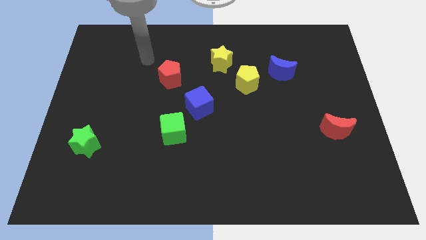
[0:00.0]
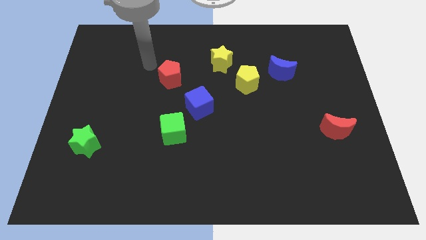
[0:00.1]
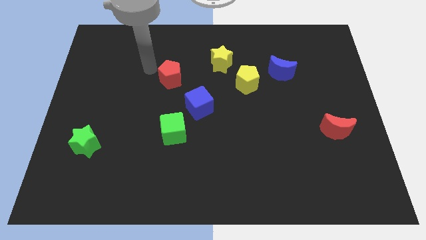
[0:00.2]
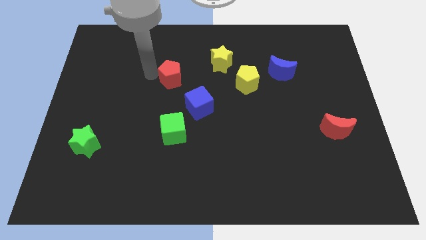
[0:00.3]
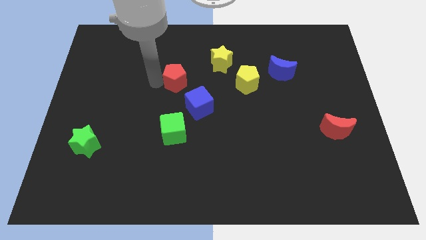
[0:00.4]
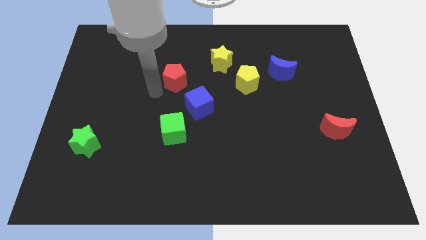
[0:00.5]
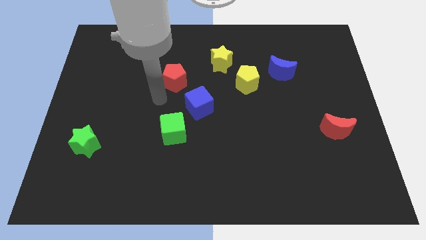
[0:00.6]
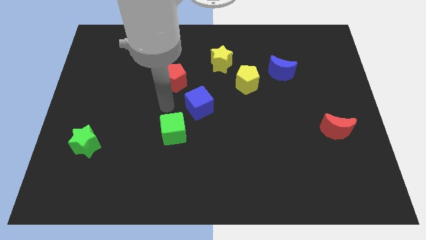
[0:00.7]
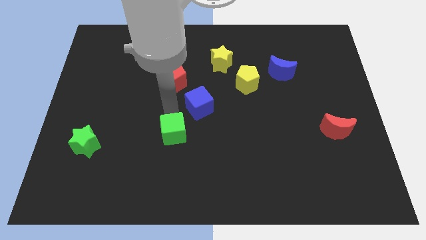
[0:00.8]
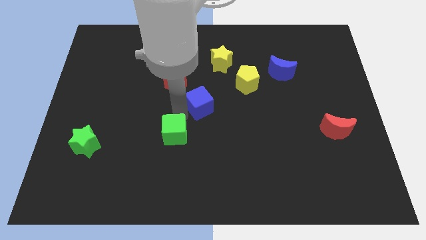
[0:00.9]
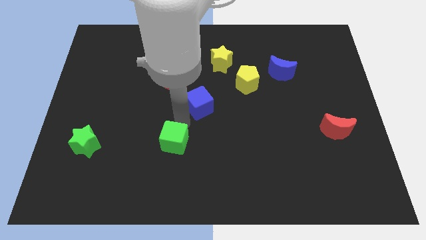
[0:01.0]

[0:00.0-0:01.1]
pull the blue cube apart from the green cube

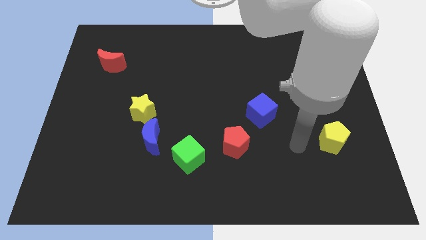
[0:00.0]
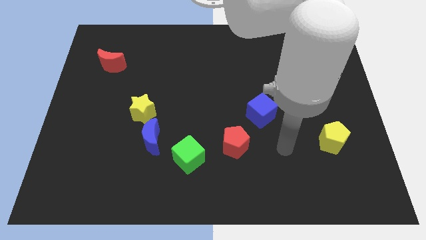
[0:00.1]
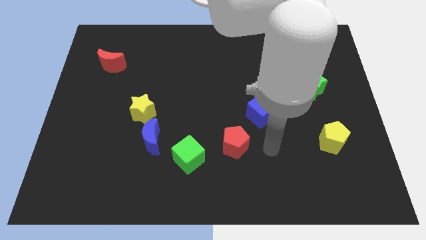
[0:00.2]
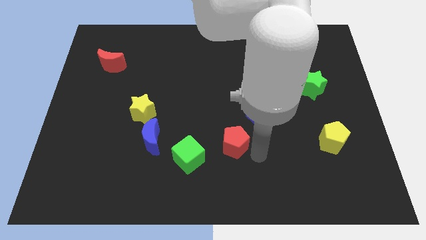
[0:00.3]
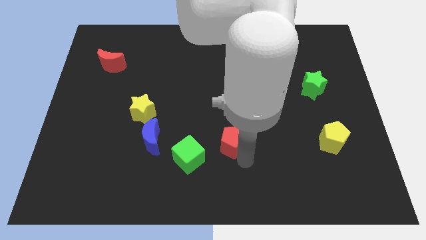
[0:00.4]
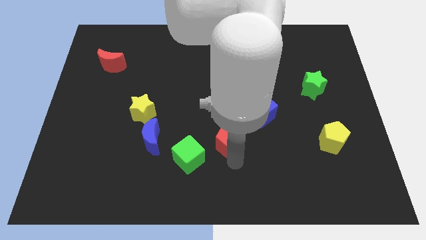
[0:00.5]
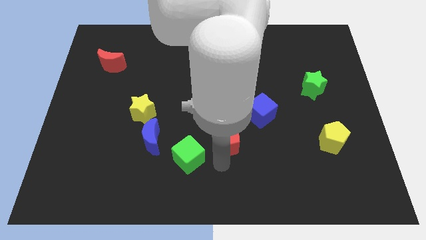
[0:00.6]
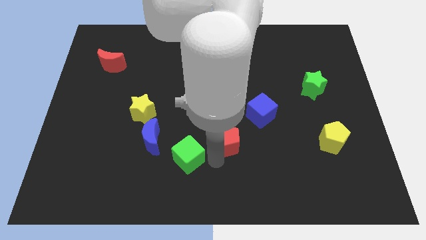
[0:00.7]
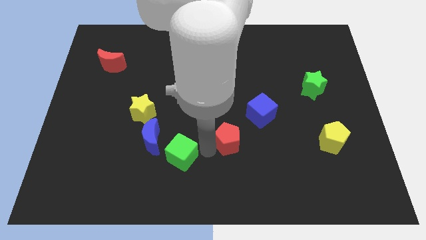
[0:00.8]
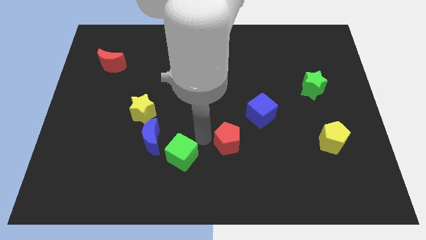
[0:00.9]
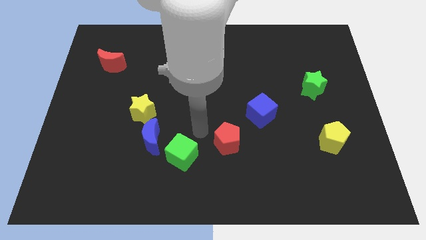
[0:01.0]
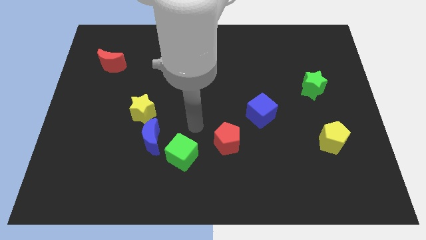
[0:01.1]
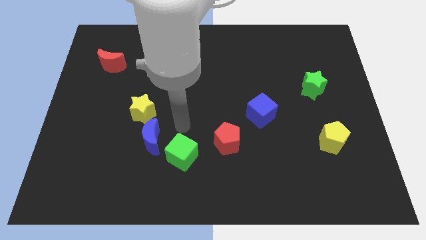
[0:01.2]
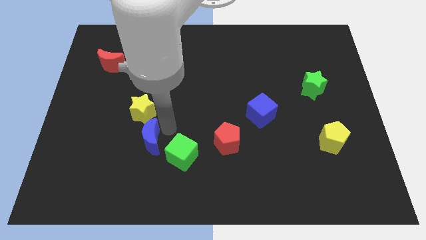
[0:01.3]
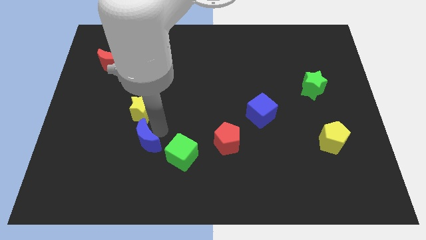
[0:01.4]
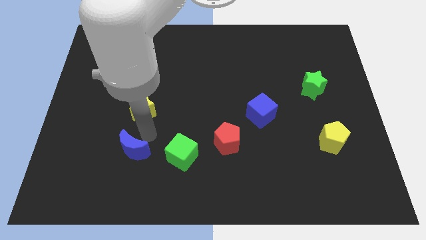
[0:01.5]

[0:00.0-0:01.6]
move the yellow star away from the blue moon

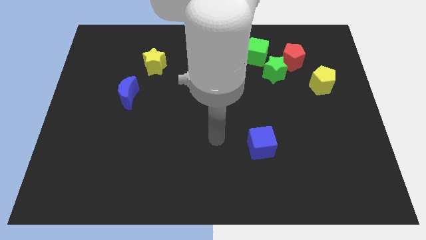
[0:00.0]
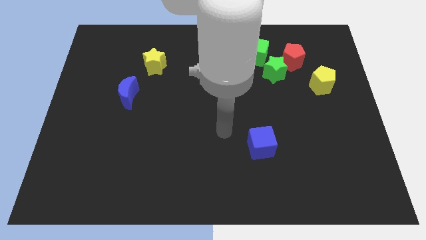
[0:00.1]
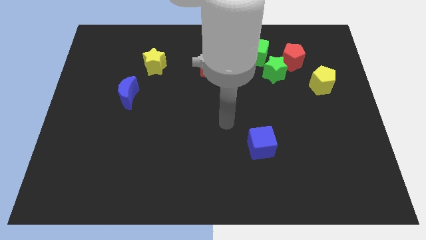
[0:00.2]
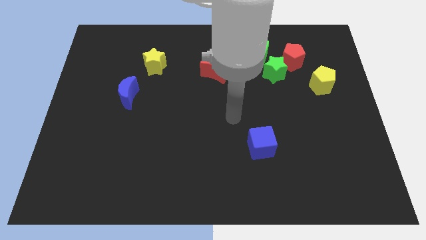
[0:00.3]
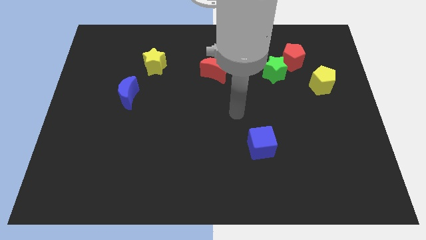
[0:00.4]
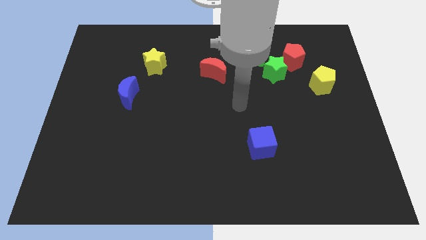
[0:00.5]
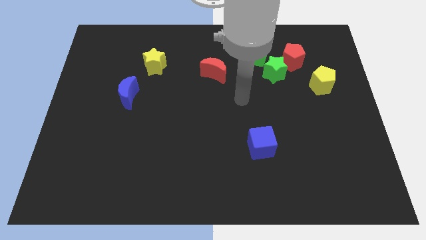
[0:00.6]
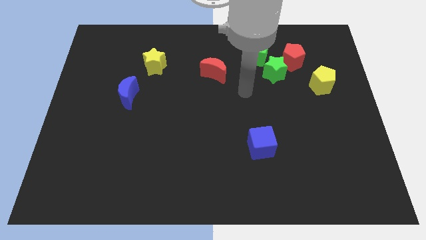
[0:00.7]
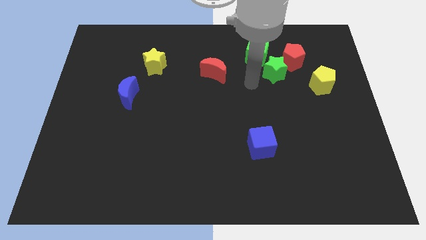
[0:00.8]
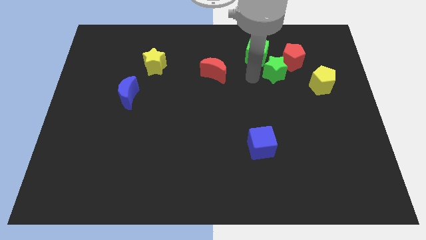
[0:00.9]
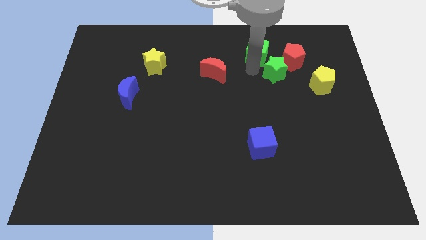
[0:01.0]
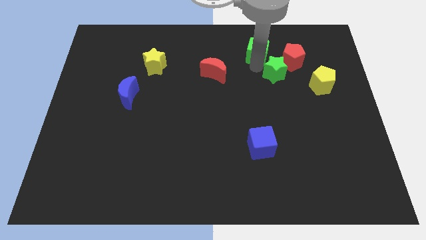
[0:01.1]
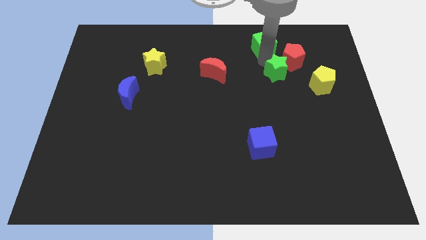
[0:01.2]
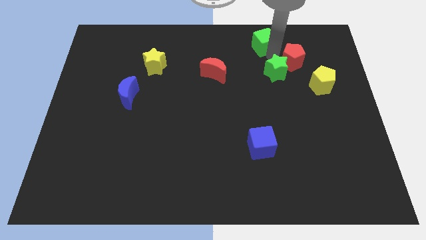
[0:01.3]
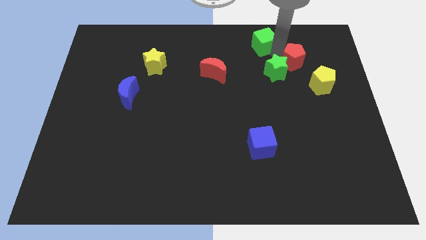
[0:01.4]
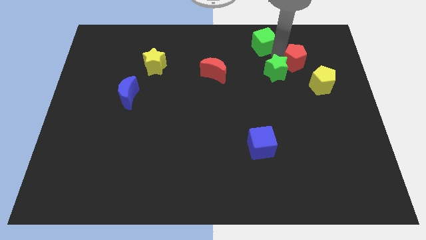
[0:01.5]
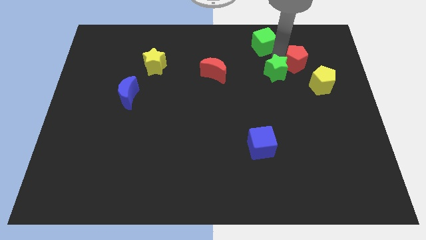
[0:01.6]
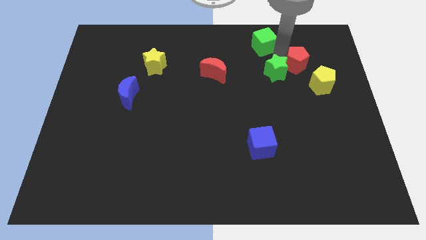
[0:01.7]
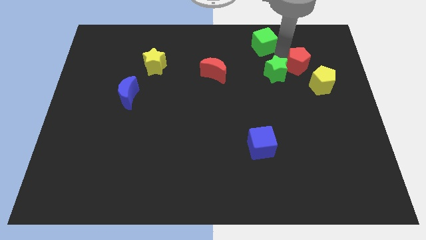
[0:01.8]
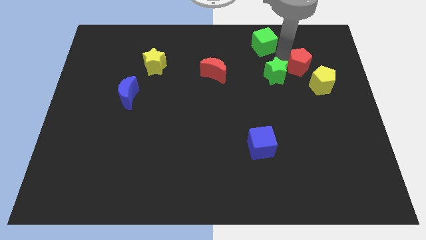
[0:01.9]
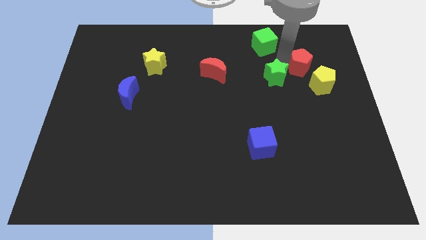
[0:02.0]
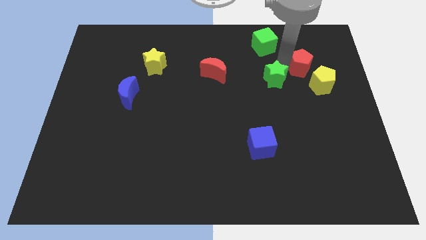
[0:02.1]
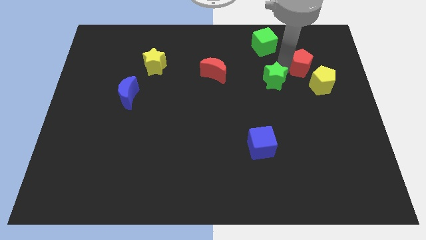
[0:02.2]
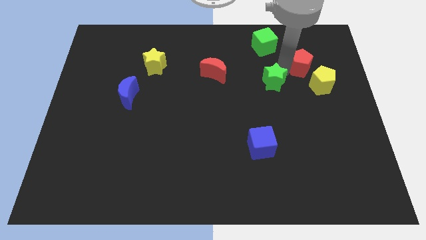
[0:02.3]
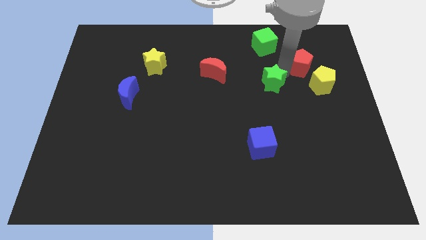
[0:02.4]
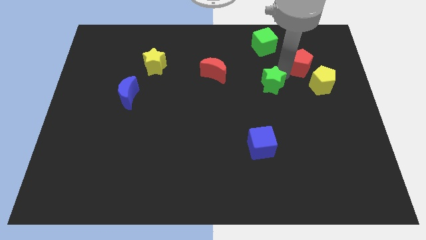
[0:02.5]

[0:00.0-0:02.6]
separate the green star from the red pentagon and green cube

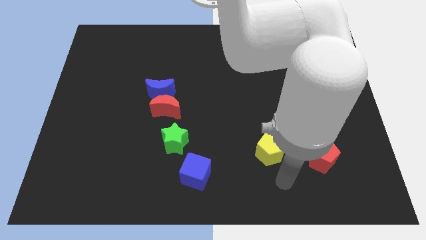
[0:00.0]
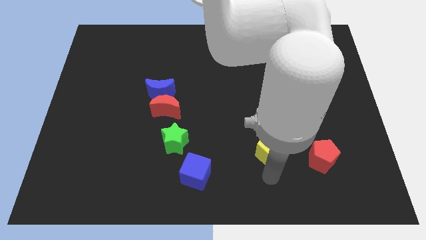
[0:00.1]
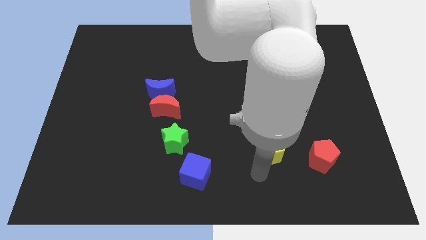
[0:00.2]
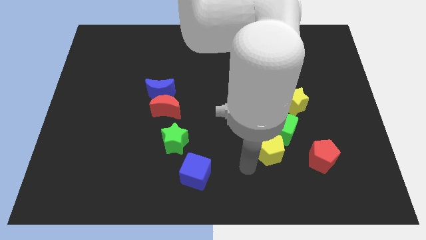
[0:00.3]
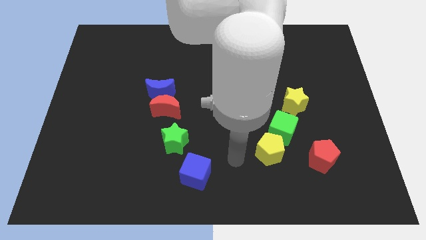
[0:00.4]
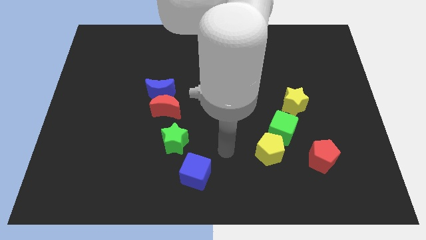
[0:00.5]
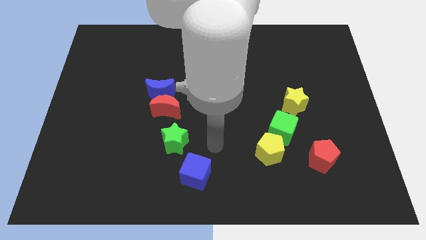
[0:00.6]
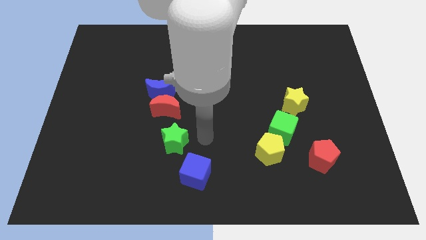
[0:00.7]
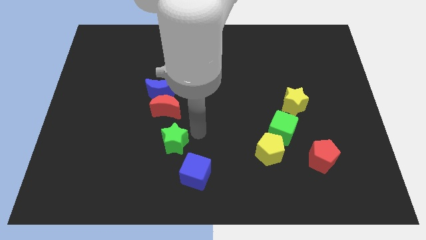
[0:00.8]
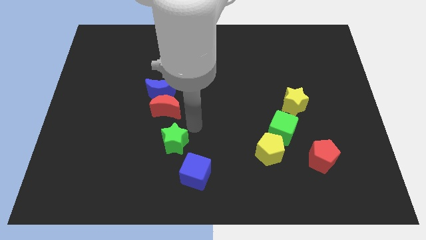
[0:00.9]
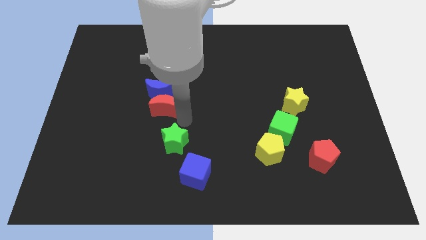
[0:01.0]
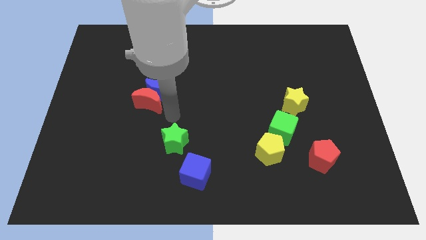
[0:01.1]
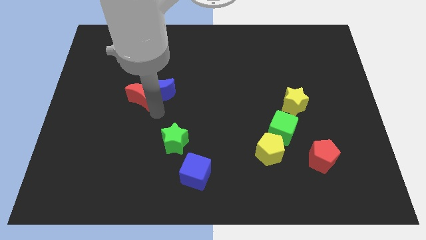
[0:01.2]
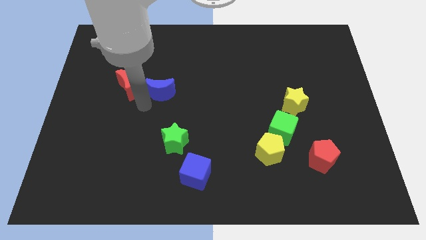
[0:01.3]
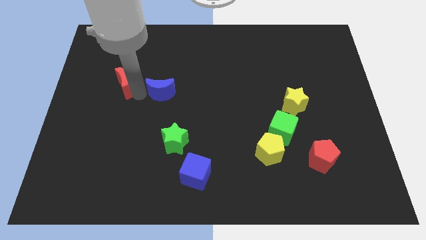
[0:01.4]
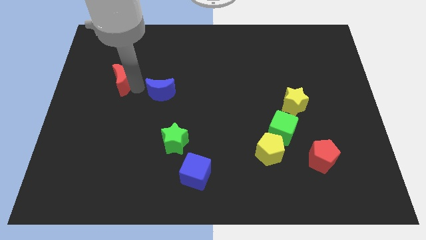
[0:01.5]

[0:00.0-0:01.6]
move the blue moon away from the red moon

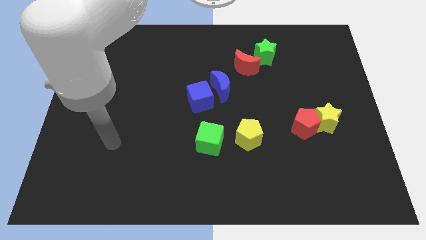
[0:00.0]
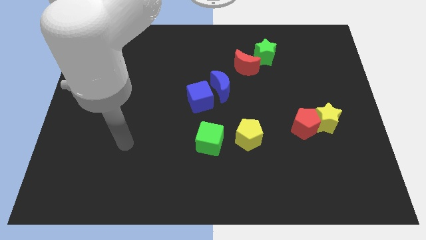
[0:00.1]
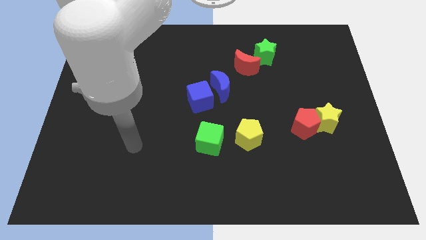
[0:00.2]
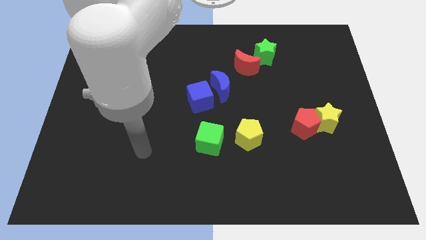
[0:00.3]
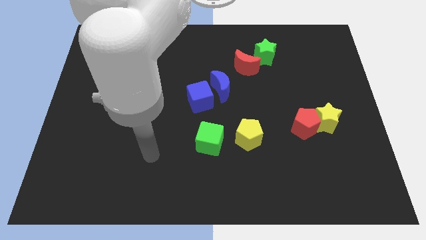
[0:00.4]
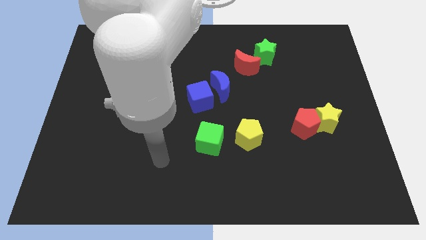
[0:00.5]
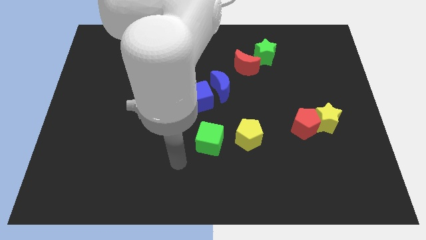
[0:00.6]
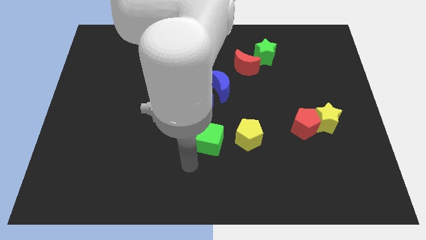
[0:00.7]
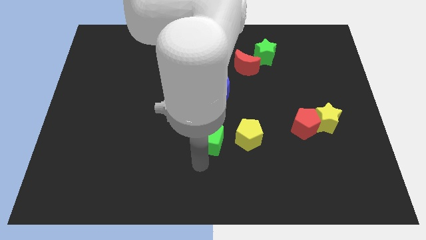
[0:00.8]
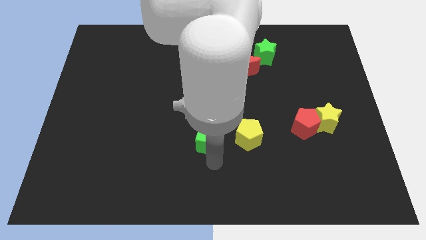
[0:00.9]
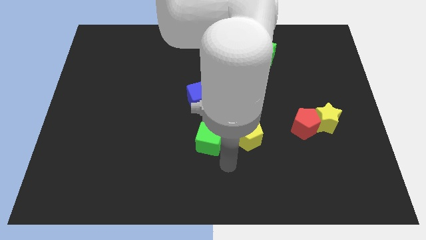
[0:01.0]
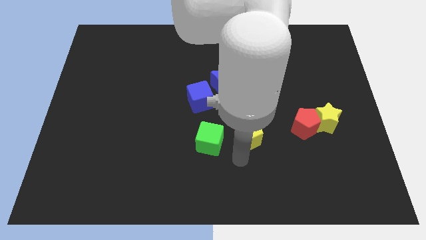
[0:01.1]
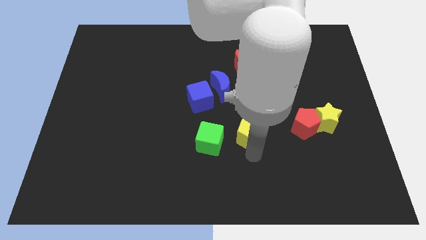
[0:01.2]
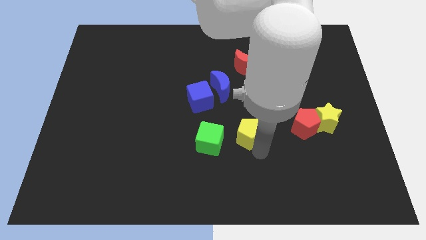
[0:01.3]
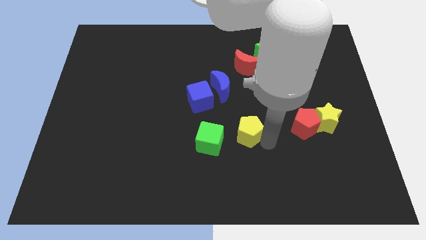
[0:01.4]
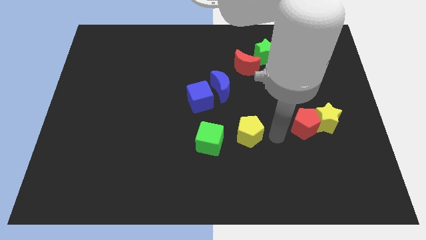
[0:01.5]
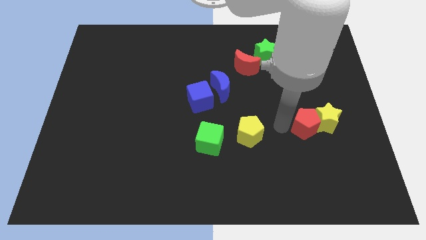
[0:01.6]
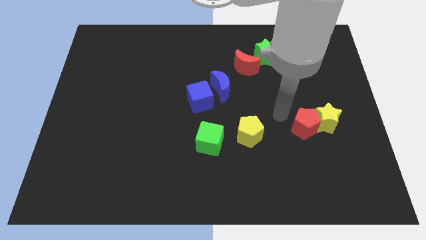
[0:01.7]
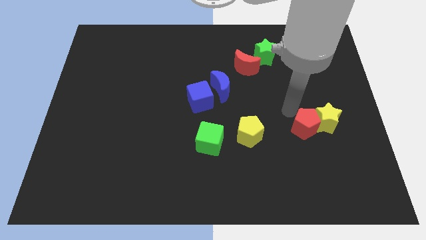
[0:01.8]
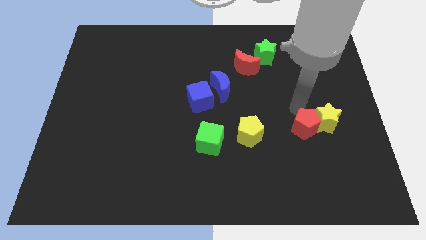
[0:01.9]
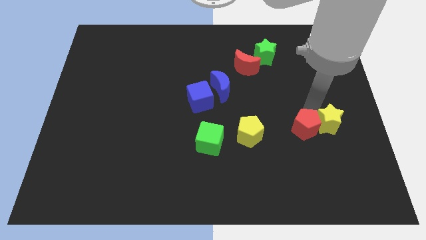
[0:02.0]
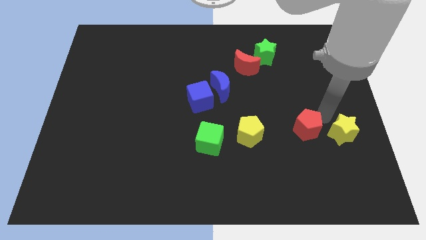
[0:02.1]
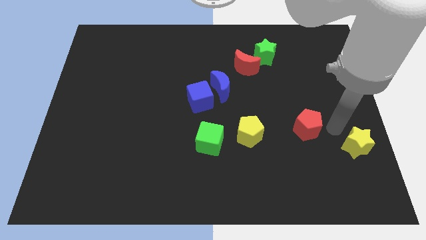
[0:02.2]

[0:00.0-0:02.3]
move the red pentagon away from the yellow star
